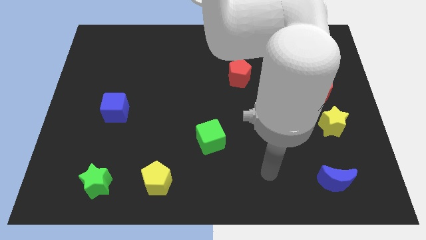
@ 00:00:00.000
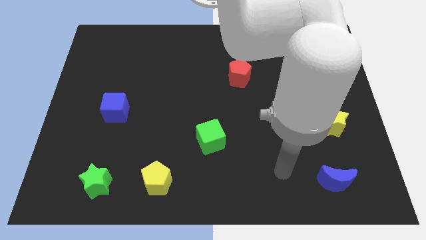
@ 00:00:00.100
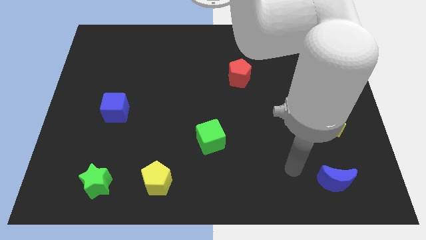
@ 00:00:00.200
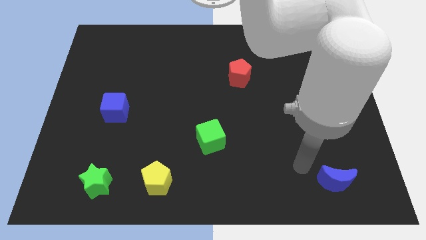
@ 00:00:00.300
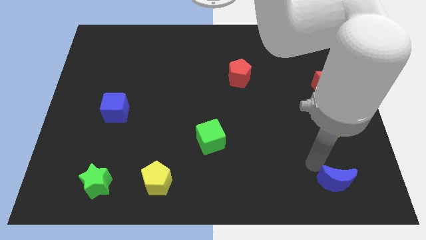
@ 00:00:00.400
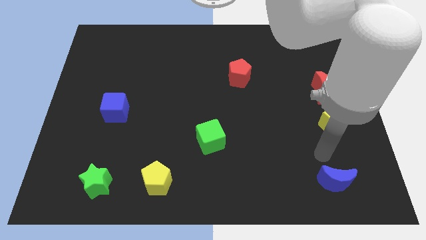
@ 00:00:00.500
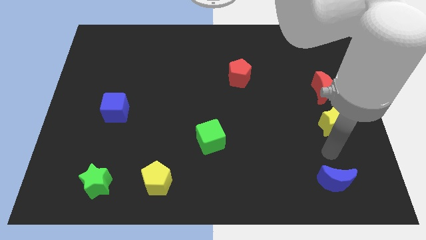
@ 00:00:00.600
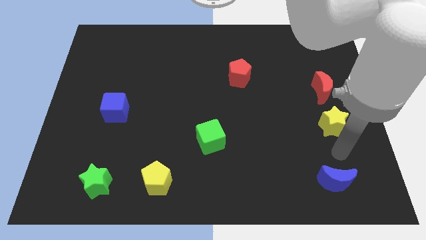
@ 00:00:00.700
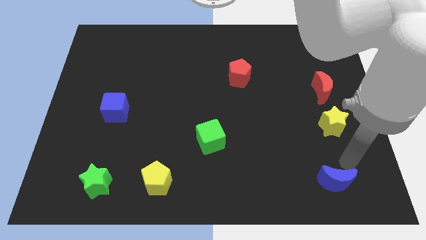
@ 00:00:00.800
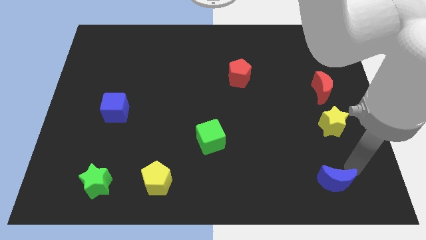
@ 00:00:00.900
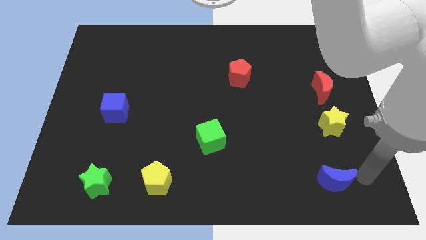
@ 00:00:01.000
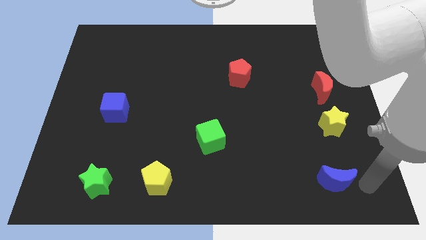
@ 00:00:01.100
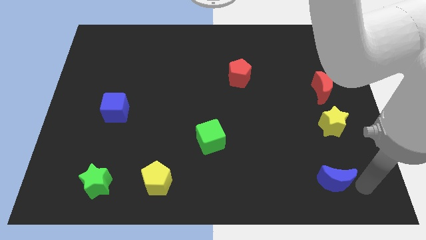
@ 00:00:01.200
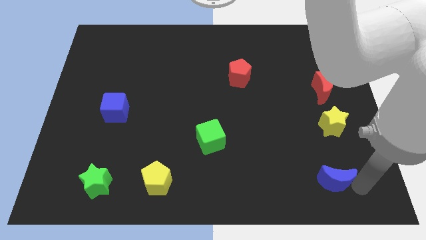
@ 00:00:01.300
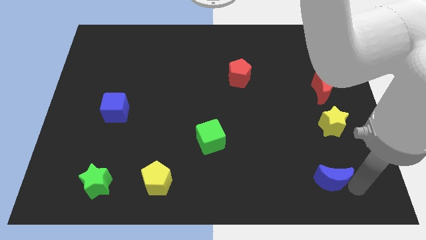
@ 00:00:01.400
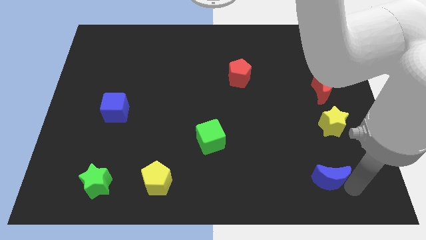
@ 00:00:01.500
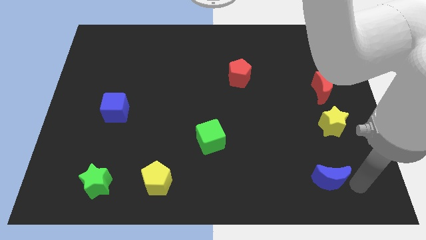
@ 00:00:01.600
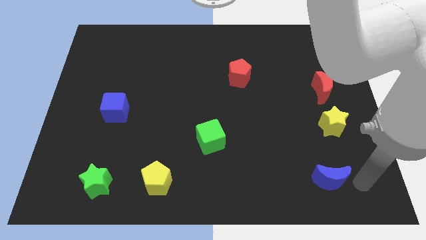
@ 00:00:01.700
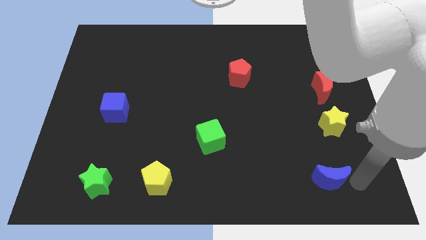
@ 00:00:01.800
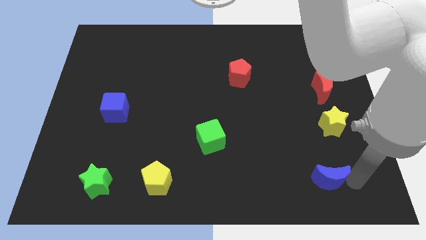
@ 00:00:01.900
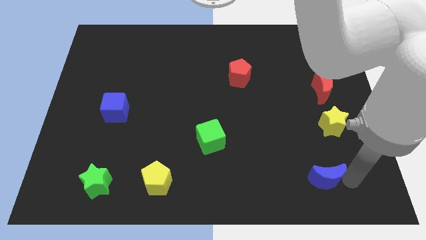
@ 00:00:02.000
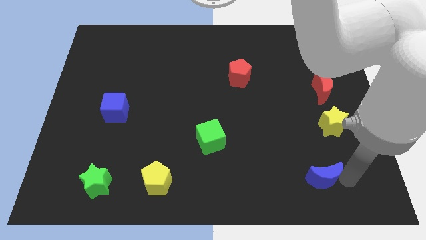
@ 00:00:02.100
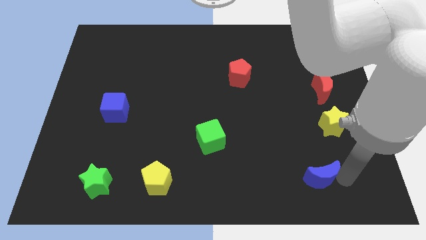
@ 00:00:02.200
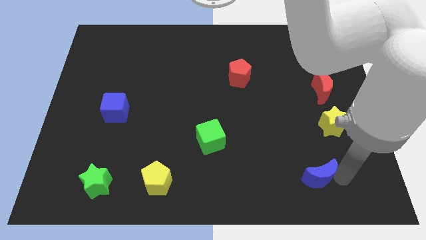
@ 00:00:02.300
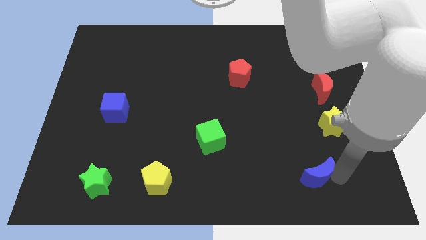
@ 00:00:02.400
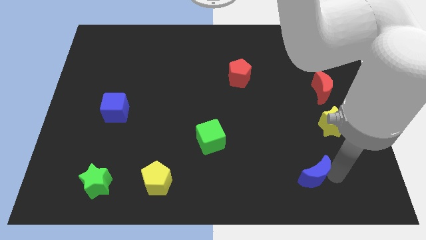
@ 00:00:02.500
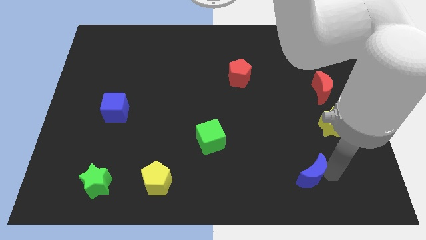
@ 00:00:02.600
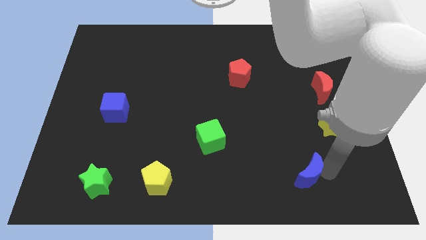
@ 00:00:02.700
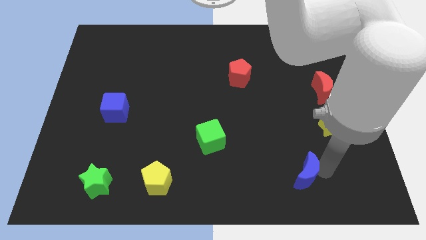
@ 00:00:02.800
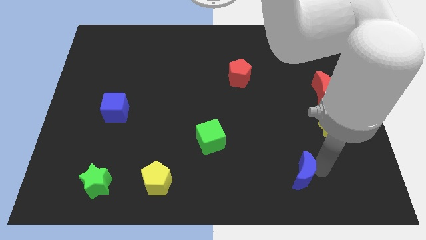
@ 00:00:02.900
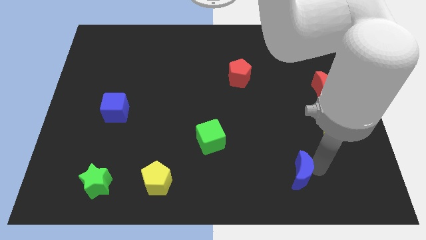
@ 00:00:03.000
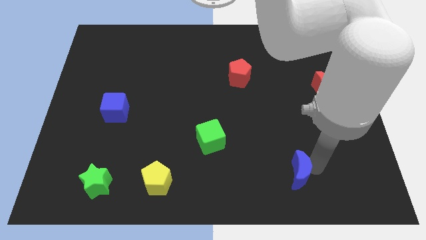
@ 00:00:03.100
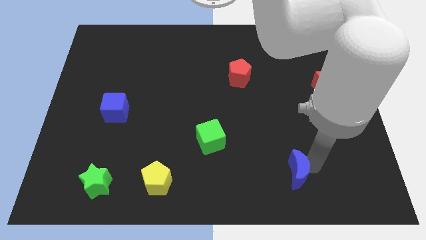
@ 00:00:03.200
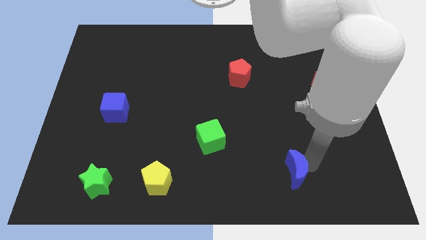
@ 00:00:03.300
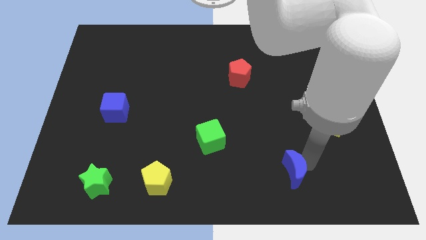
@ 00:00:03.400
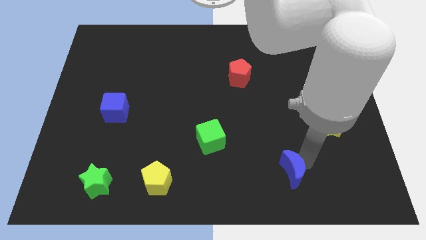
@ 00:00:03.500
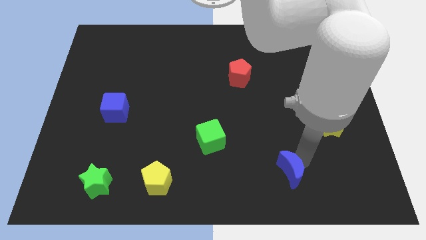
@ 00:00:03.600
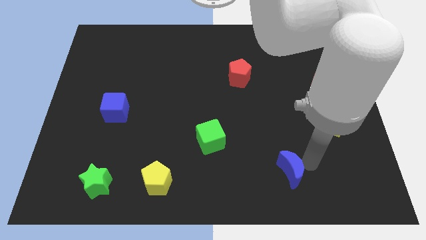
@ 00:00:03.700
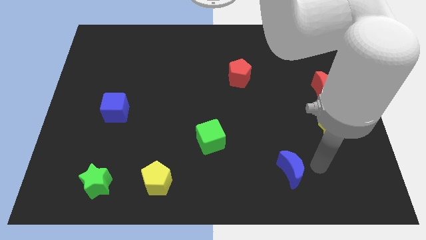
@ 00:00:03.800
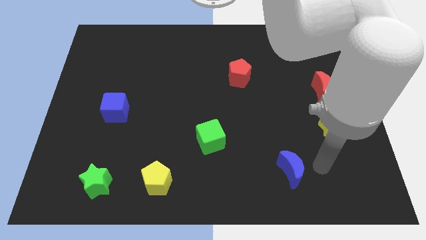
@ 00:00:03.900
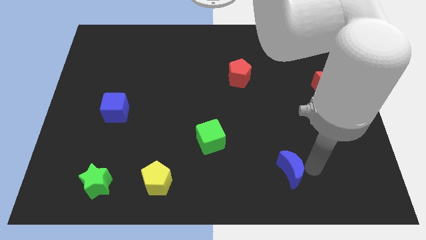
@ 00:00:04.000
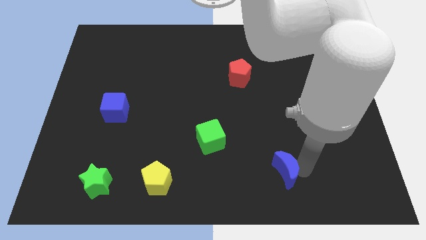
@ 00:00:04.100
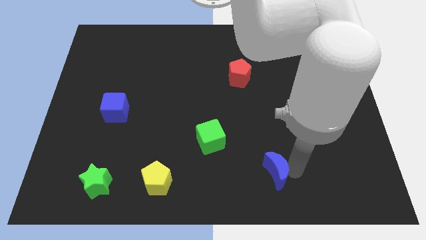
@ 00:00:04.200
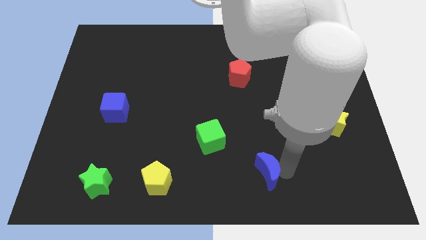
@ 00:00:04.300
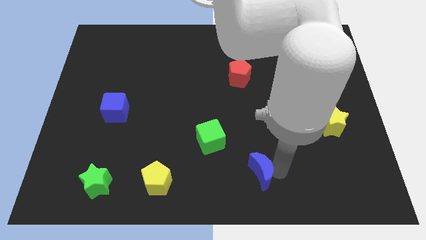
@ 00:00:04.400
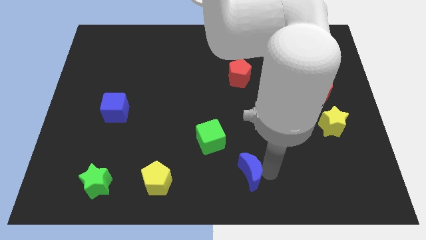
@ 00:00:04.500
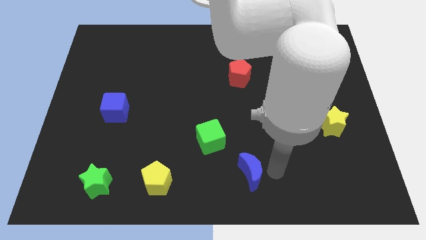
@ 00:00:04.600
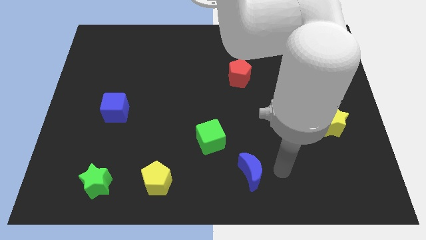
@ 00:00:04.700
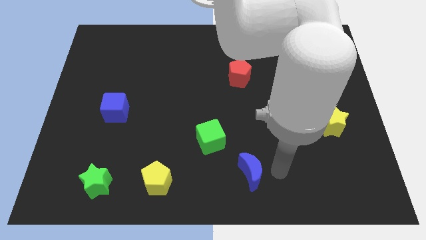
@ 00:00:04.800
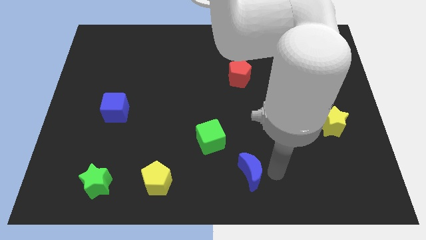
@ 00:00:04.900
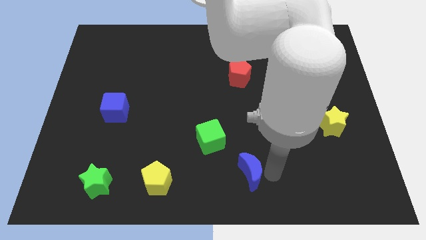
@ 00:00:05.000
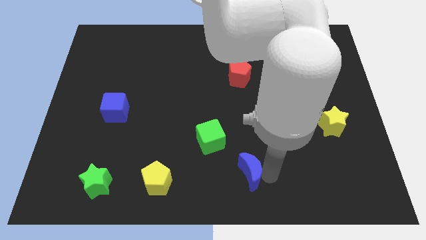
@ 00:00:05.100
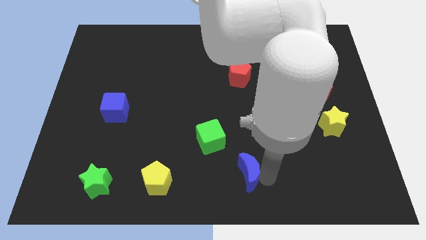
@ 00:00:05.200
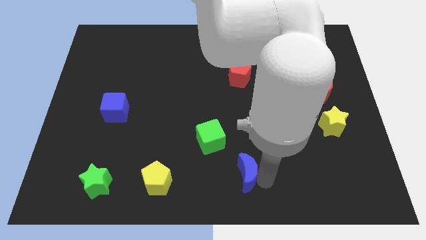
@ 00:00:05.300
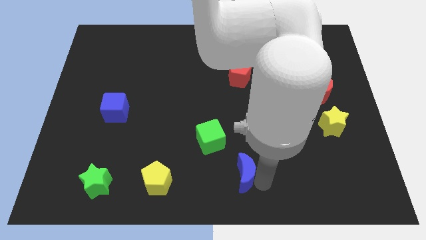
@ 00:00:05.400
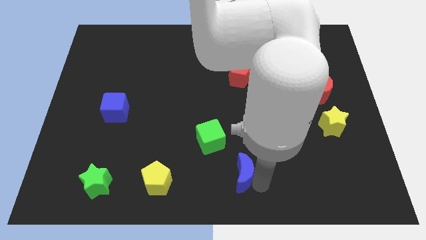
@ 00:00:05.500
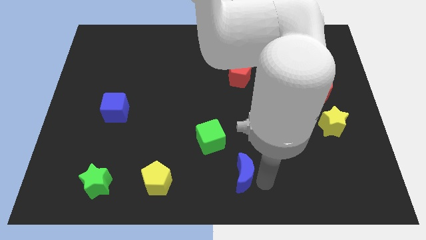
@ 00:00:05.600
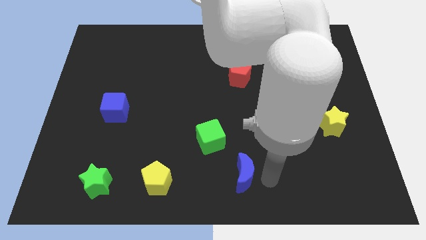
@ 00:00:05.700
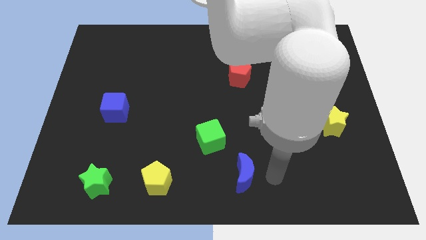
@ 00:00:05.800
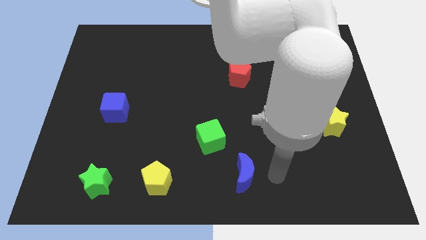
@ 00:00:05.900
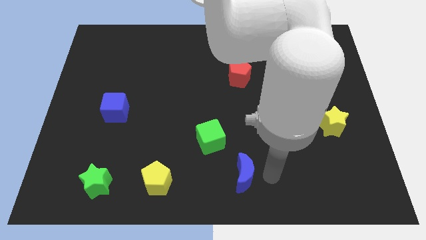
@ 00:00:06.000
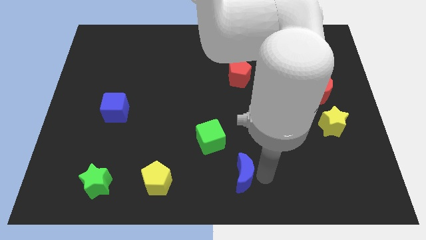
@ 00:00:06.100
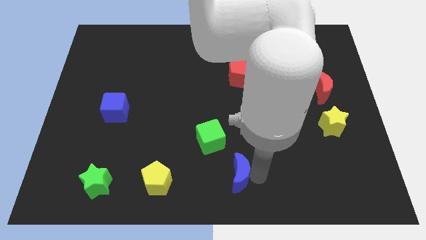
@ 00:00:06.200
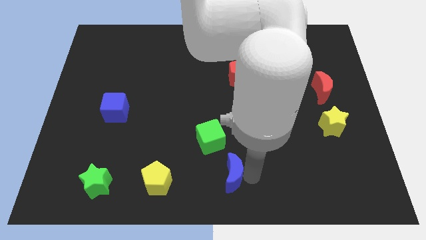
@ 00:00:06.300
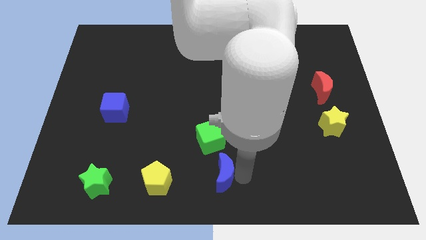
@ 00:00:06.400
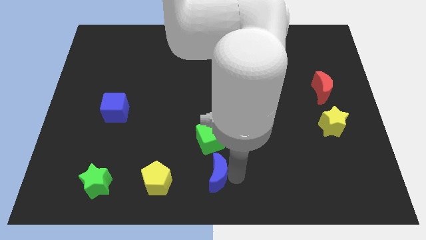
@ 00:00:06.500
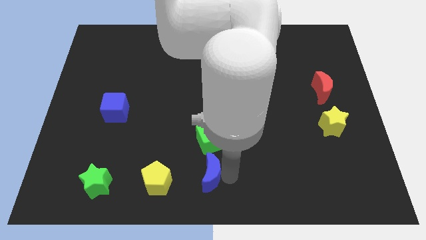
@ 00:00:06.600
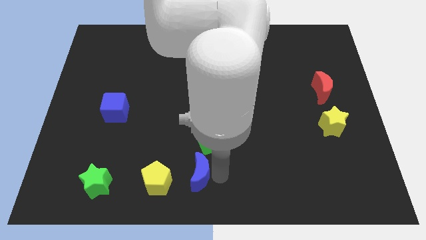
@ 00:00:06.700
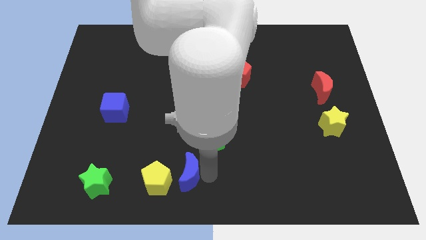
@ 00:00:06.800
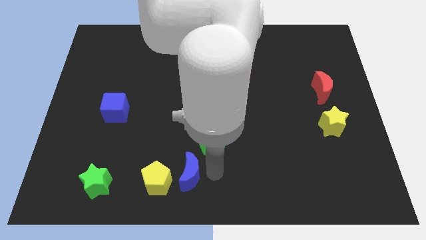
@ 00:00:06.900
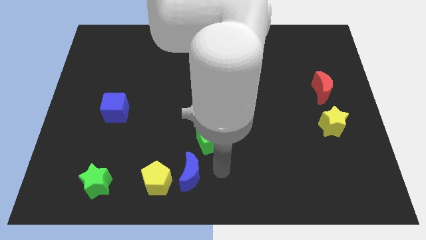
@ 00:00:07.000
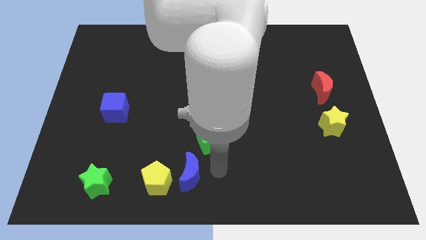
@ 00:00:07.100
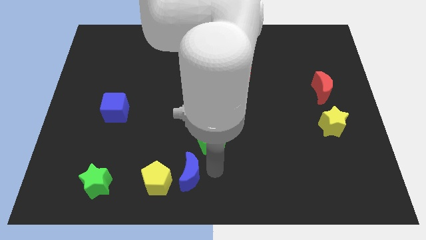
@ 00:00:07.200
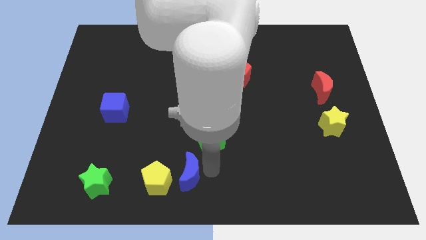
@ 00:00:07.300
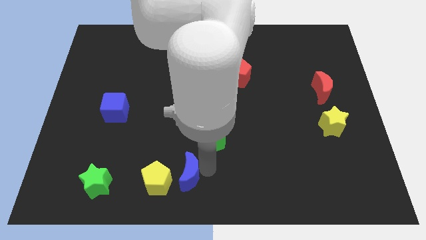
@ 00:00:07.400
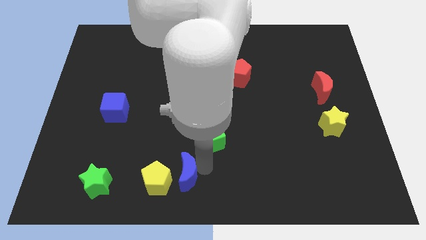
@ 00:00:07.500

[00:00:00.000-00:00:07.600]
move the blue moon towards the yellow pentagon
